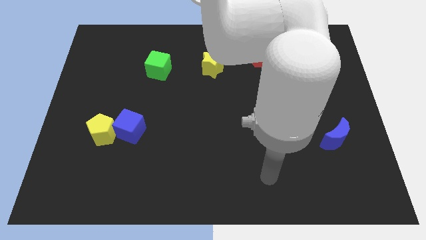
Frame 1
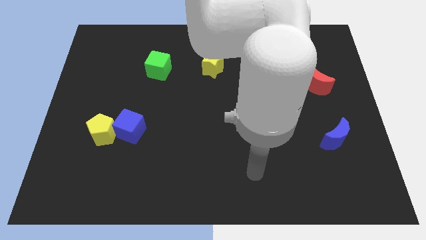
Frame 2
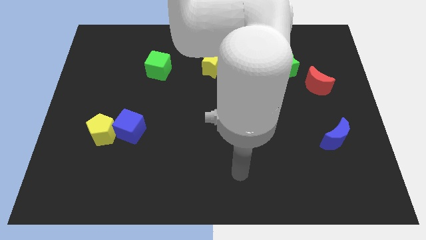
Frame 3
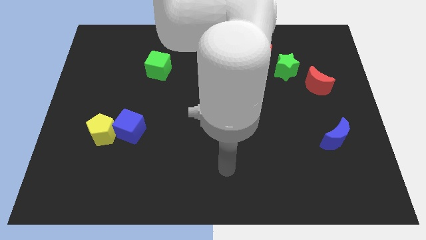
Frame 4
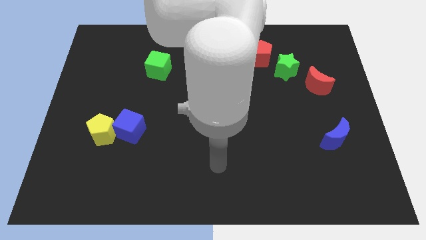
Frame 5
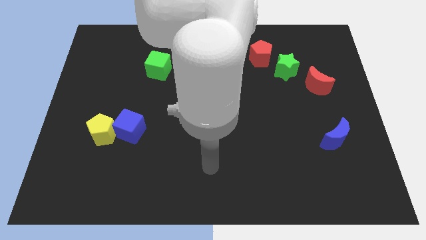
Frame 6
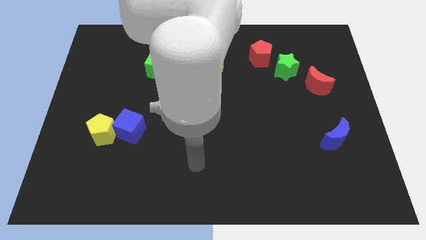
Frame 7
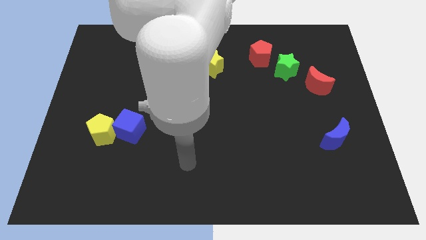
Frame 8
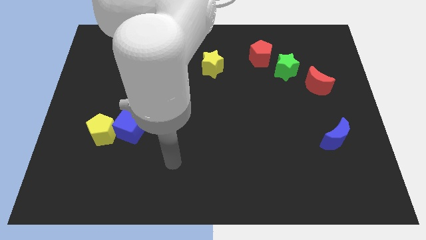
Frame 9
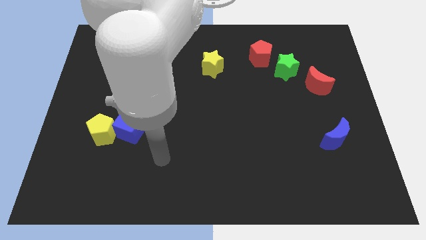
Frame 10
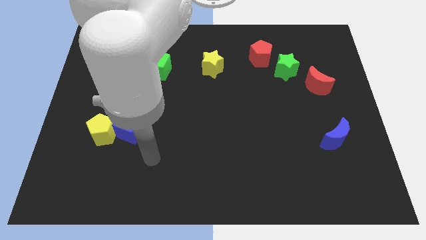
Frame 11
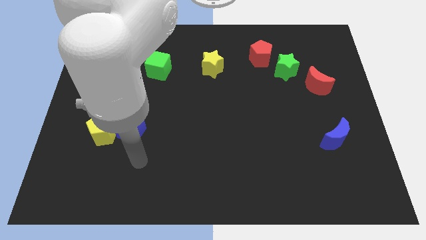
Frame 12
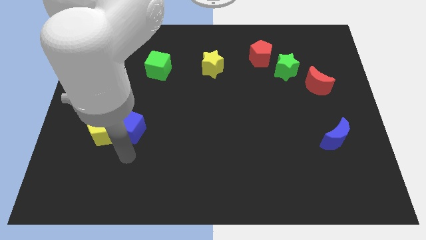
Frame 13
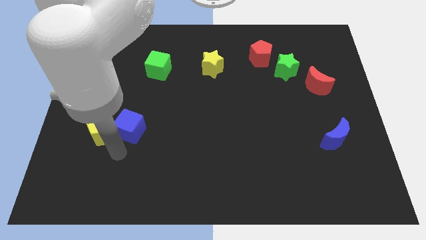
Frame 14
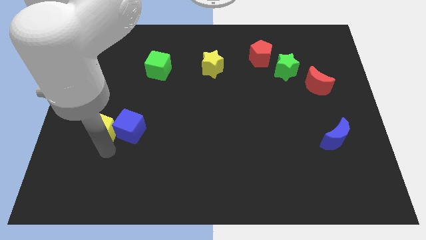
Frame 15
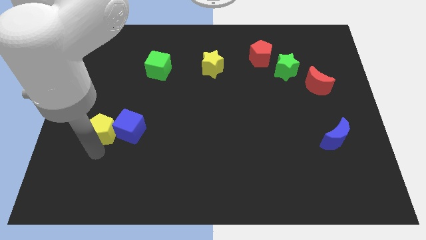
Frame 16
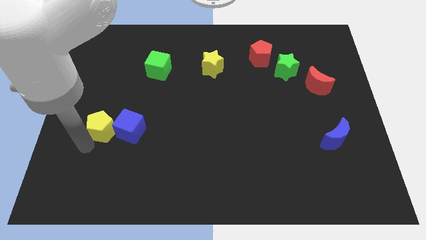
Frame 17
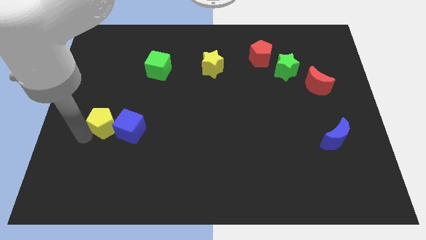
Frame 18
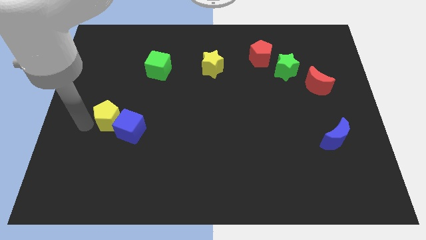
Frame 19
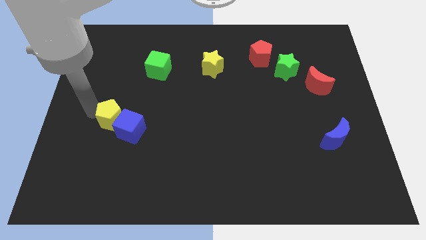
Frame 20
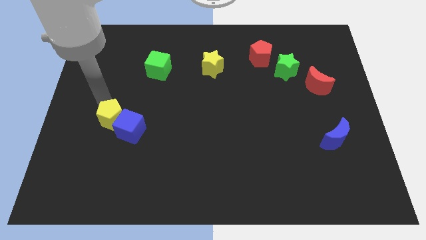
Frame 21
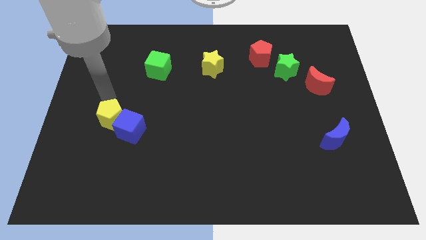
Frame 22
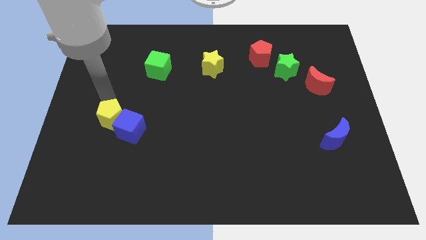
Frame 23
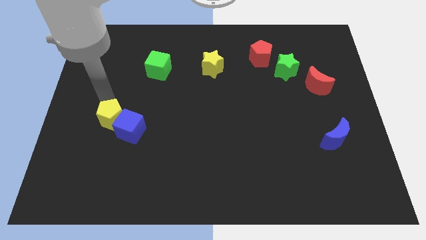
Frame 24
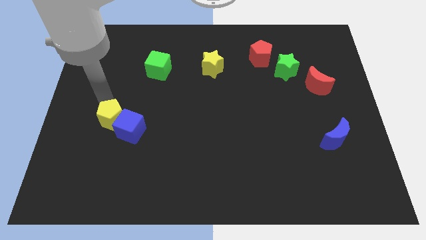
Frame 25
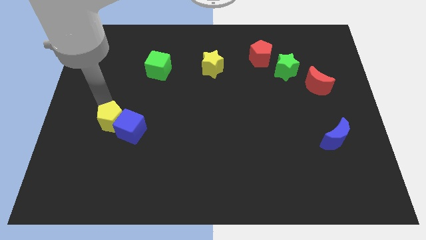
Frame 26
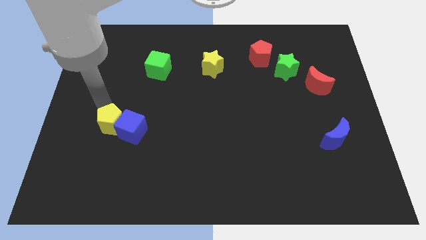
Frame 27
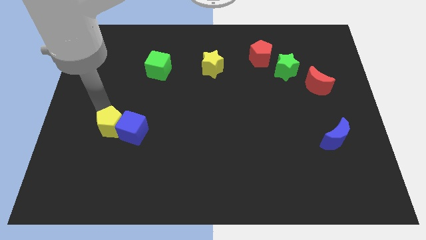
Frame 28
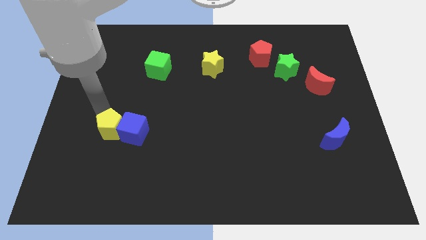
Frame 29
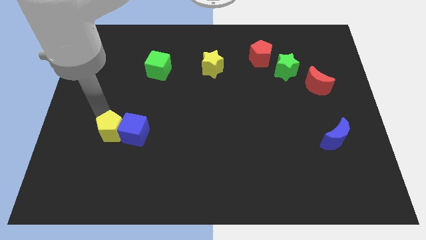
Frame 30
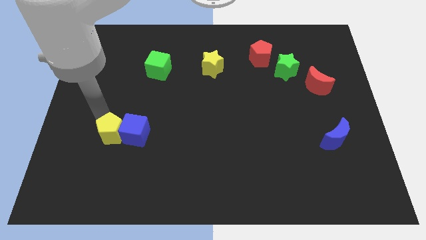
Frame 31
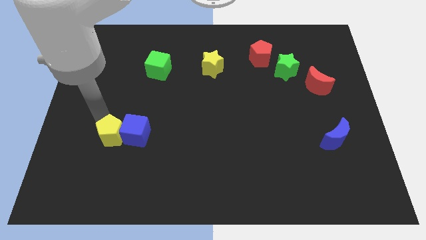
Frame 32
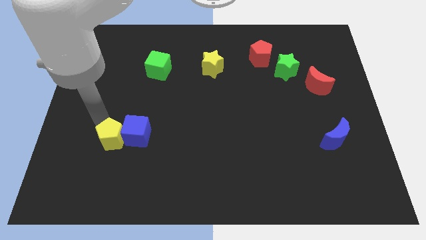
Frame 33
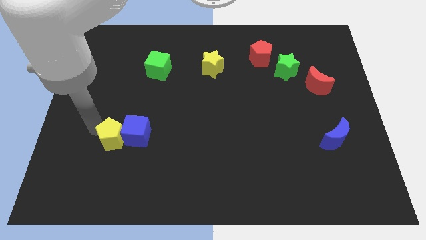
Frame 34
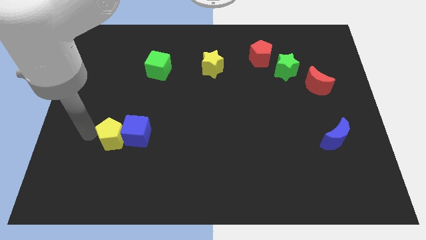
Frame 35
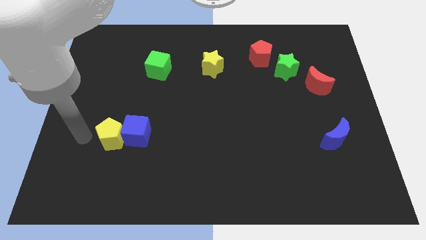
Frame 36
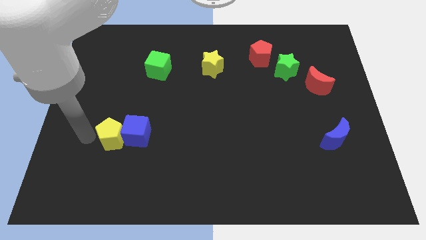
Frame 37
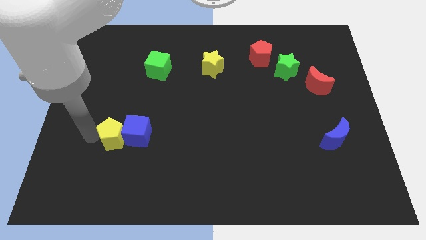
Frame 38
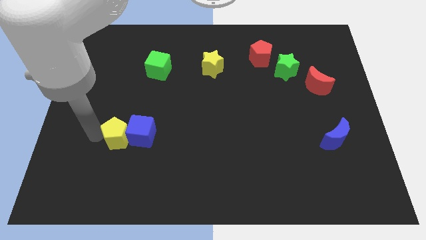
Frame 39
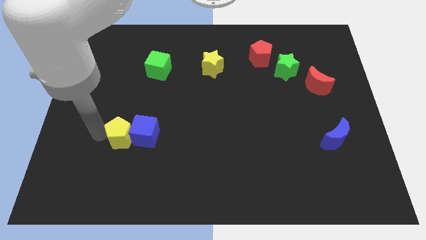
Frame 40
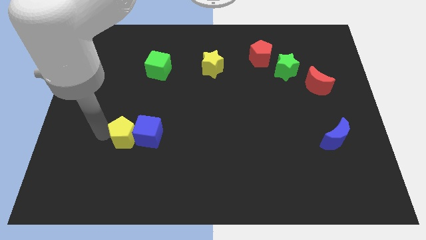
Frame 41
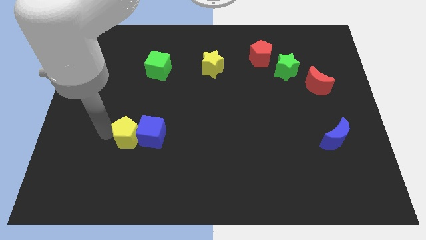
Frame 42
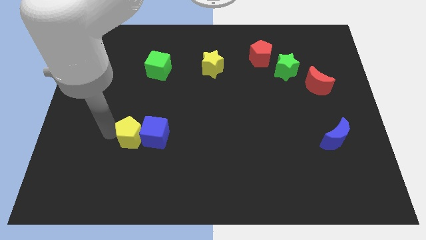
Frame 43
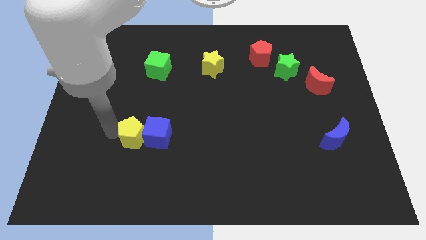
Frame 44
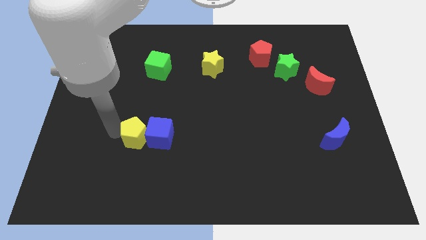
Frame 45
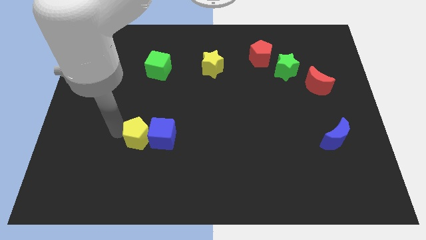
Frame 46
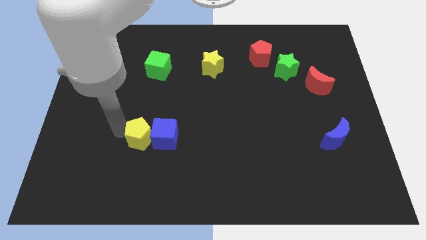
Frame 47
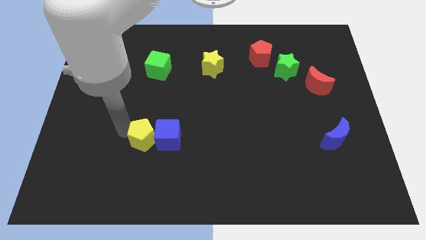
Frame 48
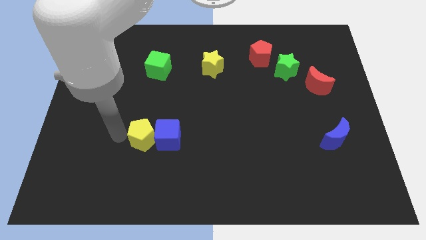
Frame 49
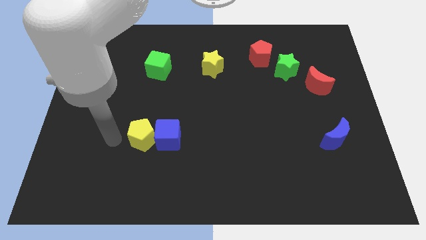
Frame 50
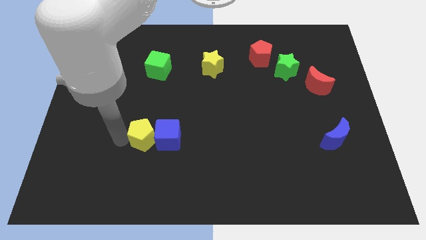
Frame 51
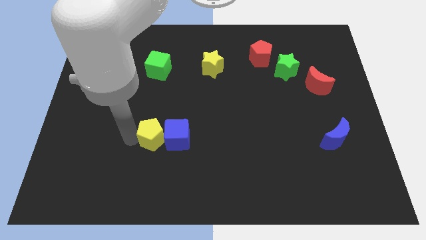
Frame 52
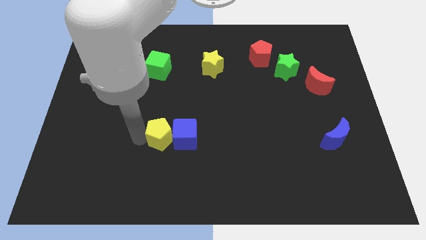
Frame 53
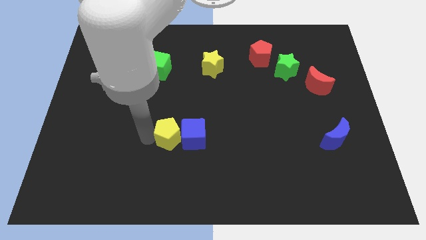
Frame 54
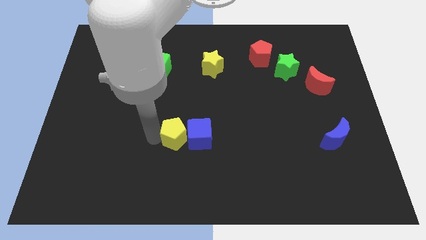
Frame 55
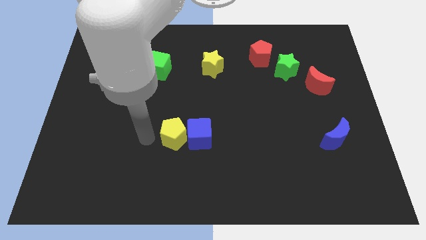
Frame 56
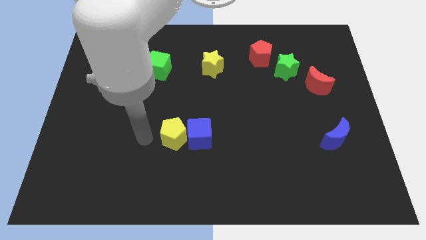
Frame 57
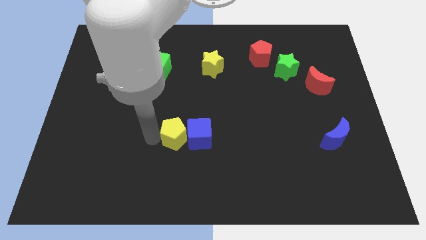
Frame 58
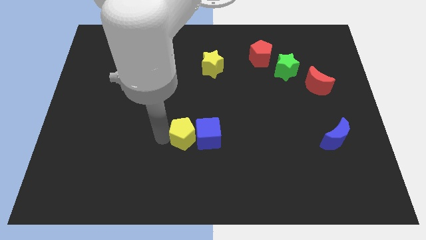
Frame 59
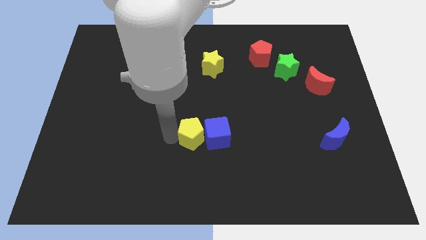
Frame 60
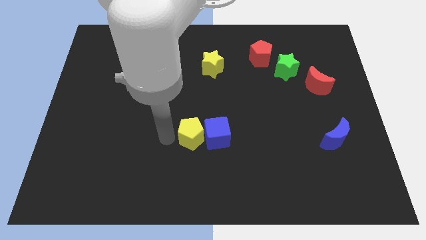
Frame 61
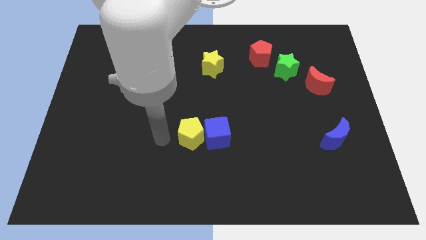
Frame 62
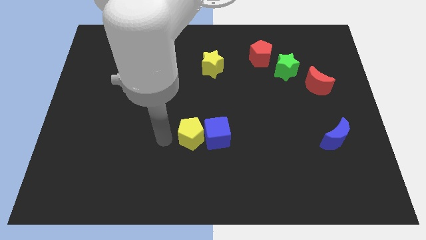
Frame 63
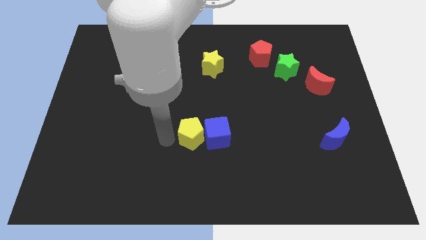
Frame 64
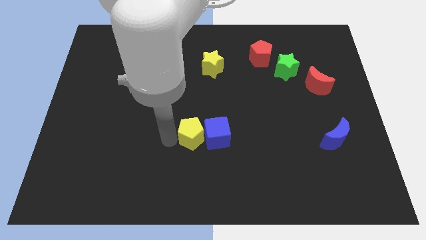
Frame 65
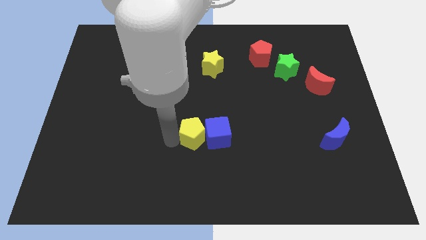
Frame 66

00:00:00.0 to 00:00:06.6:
move the yellow pentagon right

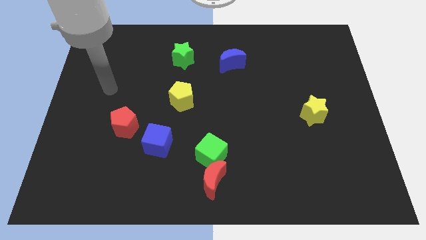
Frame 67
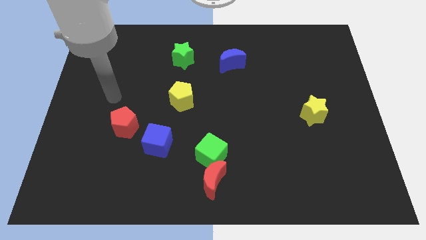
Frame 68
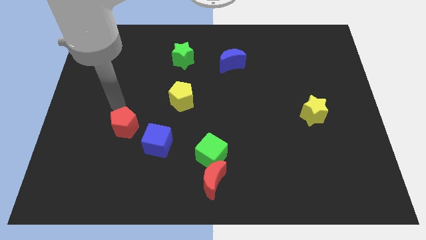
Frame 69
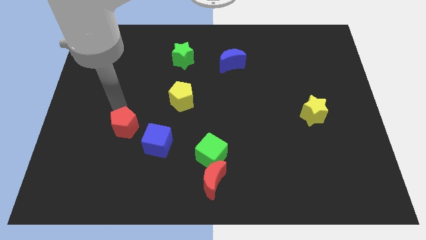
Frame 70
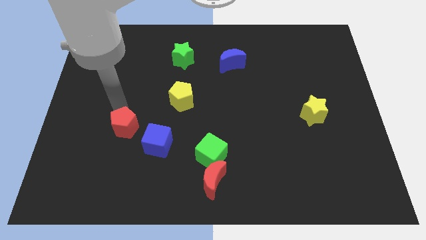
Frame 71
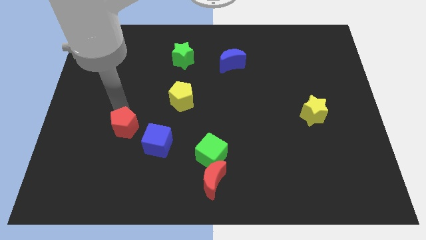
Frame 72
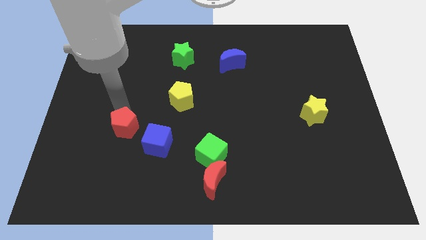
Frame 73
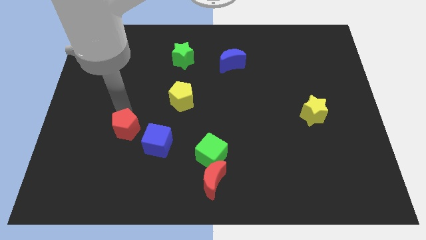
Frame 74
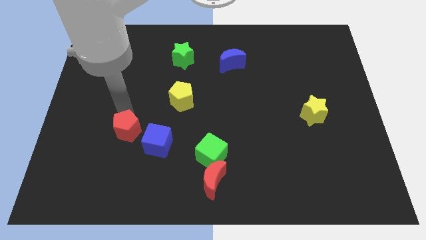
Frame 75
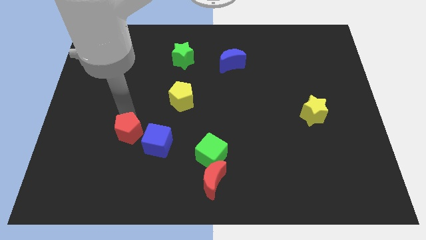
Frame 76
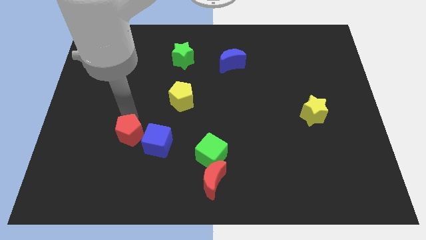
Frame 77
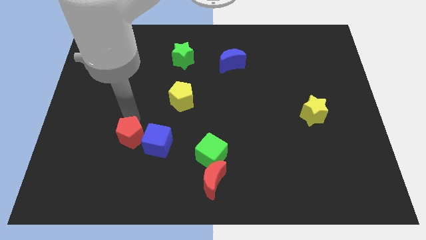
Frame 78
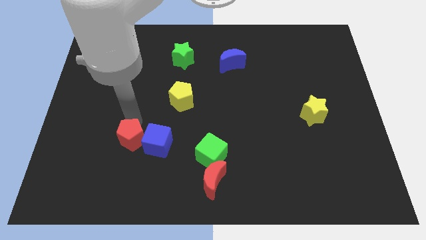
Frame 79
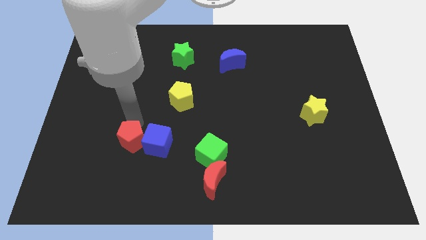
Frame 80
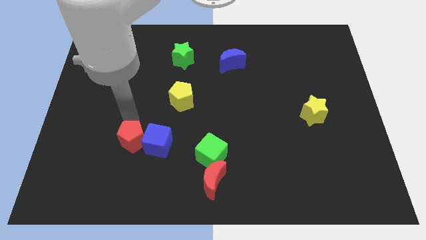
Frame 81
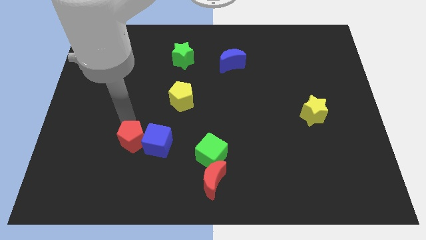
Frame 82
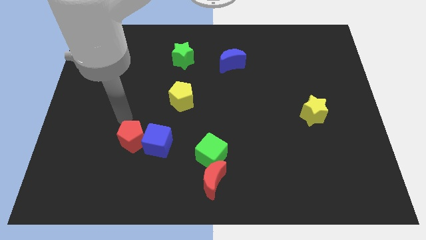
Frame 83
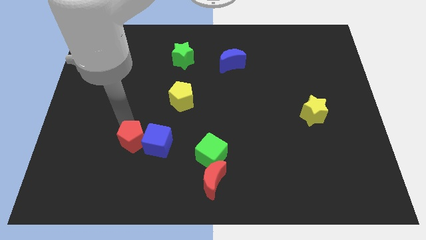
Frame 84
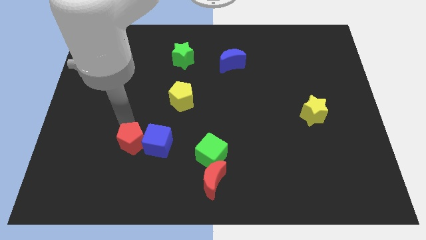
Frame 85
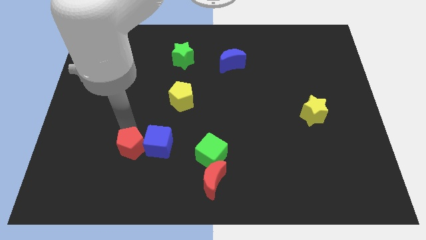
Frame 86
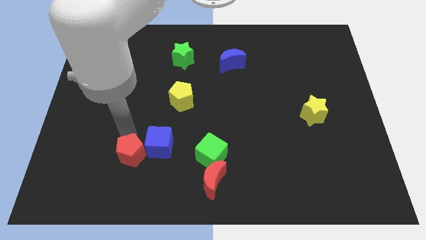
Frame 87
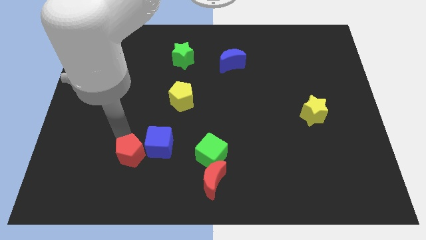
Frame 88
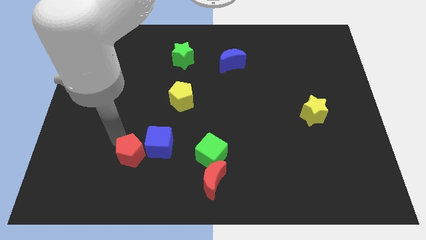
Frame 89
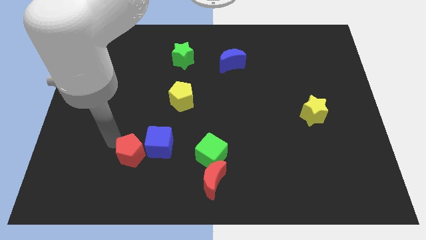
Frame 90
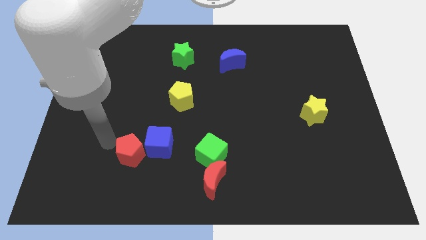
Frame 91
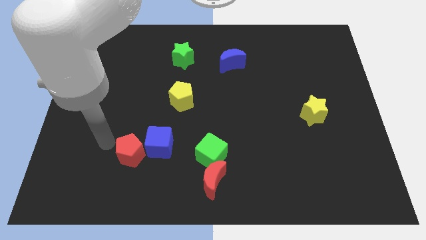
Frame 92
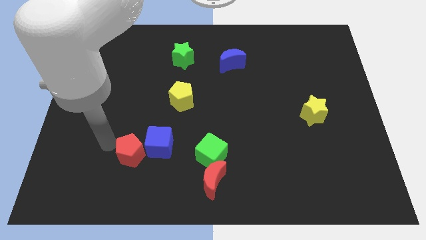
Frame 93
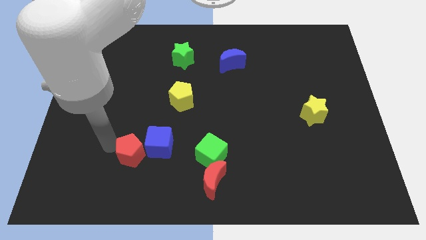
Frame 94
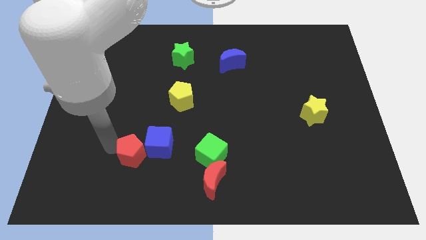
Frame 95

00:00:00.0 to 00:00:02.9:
slightly move the red pentagon downwards and right
